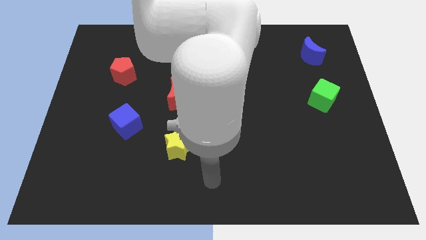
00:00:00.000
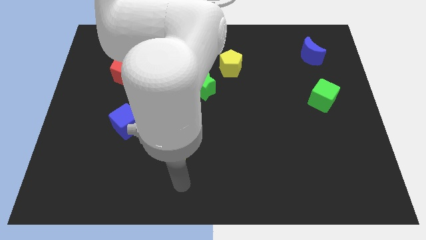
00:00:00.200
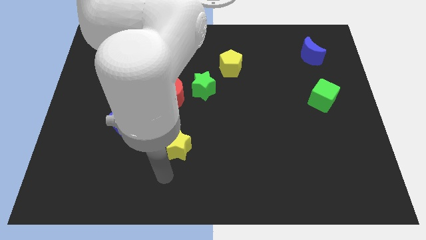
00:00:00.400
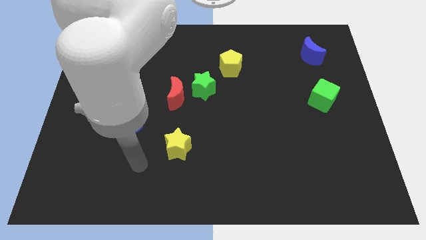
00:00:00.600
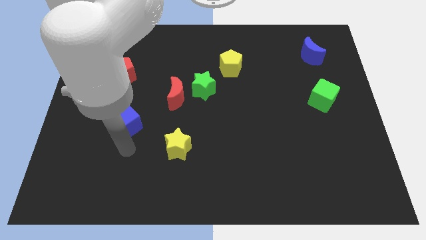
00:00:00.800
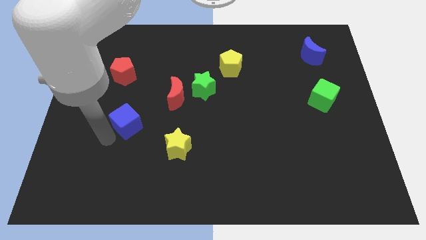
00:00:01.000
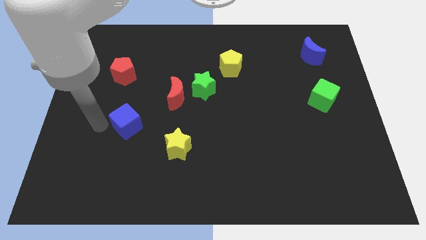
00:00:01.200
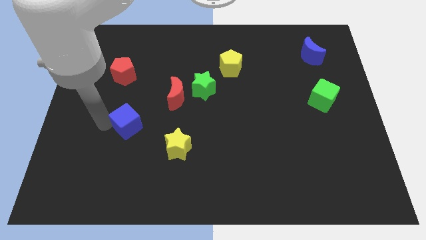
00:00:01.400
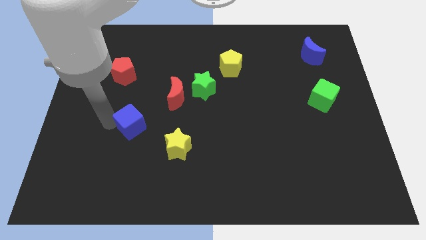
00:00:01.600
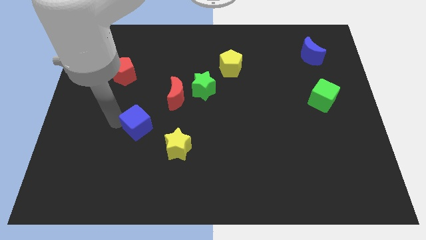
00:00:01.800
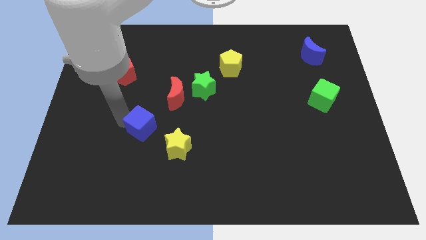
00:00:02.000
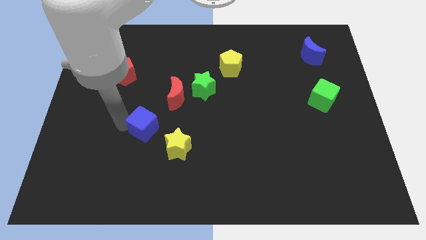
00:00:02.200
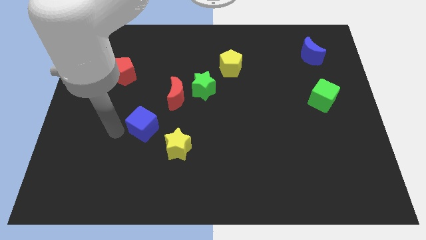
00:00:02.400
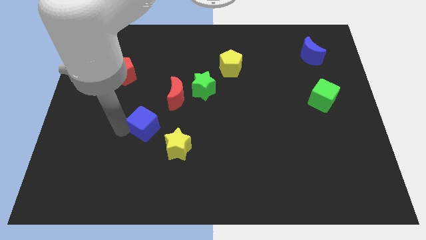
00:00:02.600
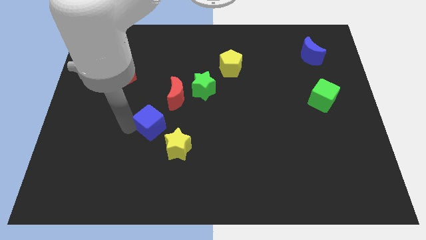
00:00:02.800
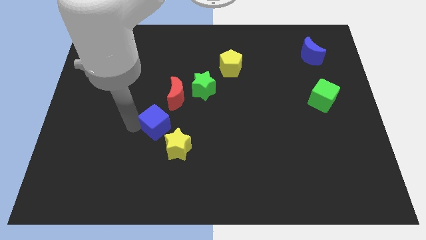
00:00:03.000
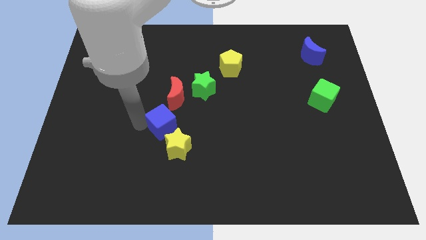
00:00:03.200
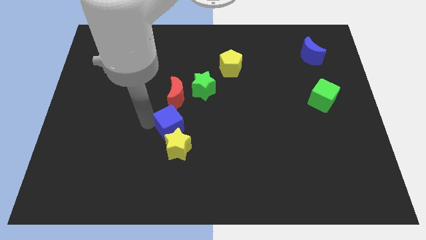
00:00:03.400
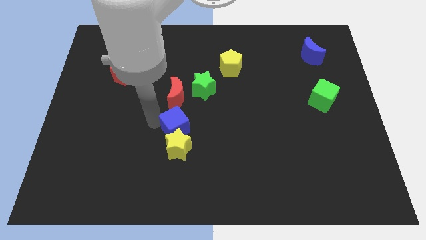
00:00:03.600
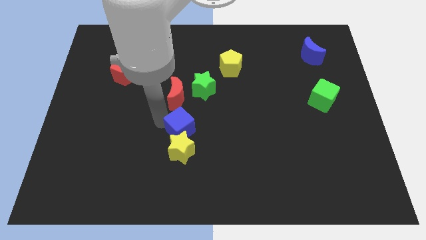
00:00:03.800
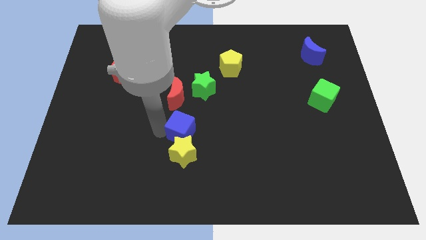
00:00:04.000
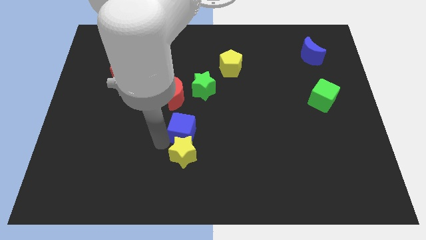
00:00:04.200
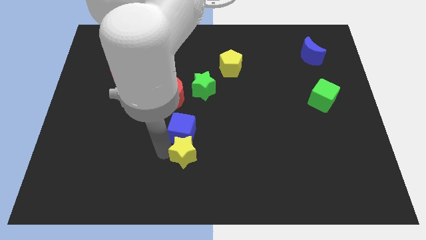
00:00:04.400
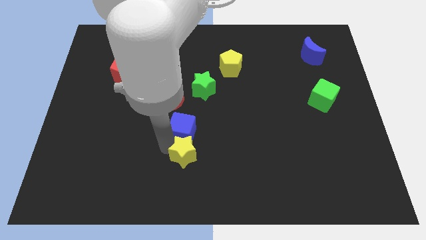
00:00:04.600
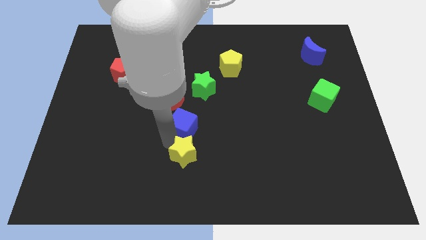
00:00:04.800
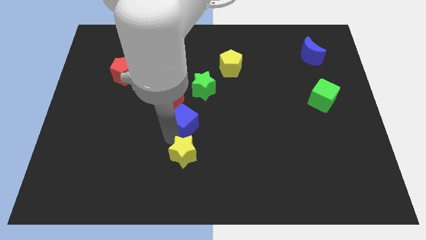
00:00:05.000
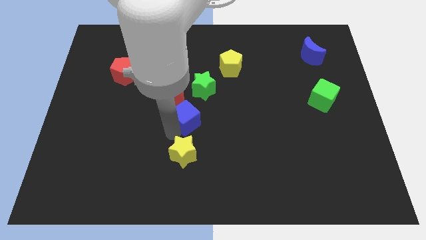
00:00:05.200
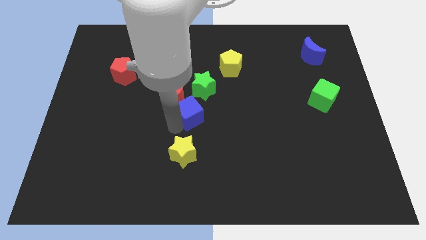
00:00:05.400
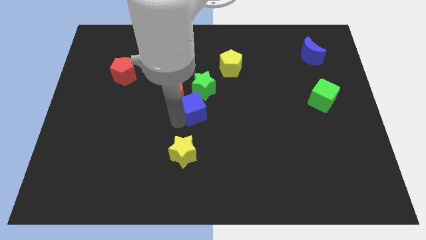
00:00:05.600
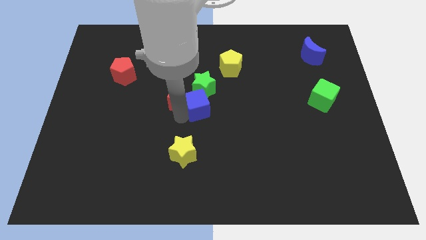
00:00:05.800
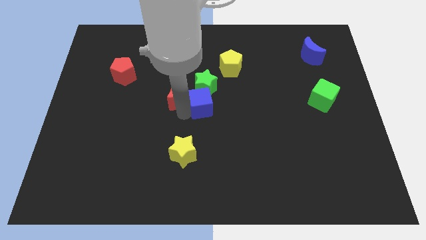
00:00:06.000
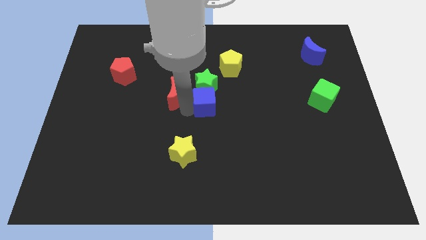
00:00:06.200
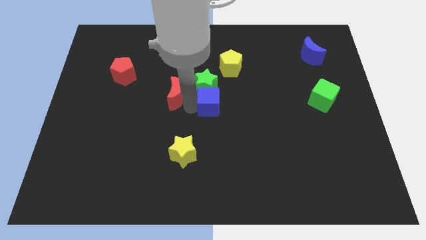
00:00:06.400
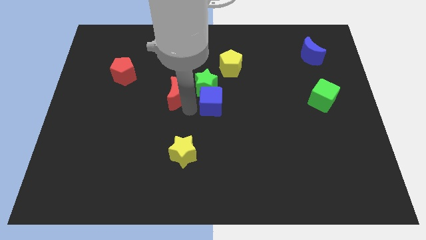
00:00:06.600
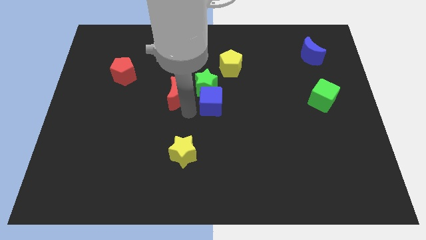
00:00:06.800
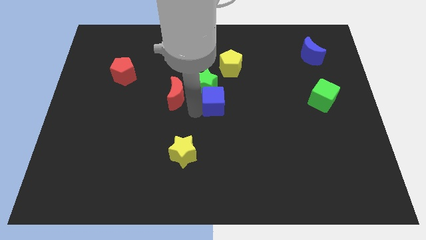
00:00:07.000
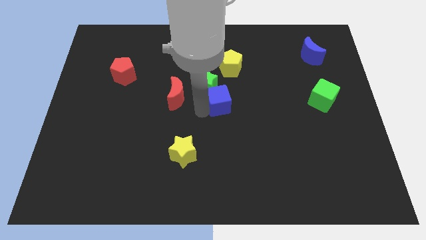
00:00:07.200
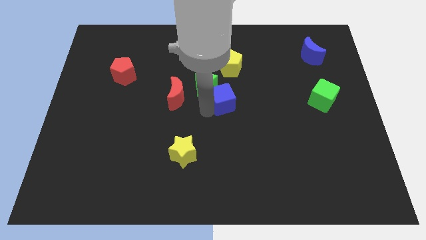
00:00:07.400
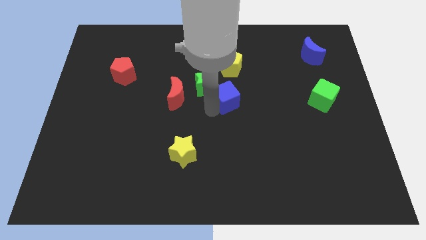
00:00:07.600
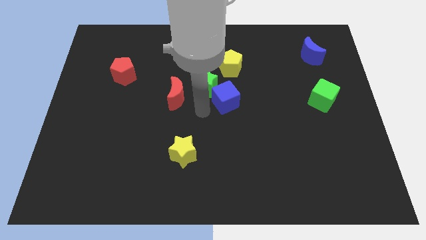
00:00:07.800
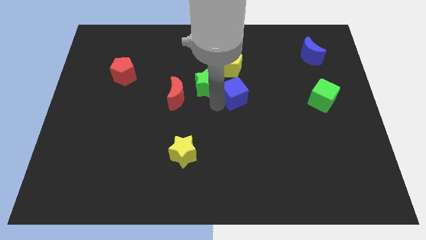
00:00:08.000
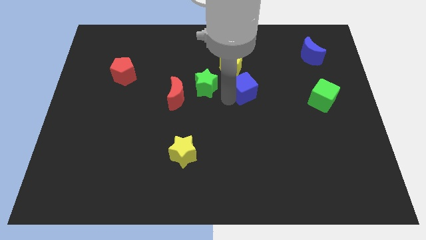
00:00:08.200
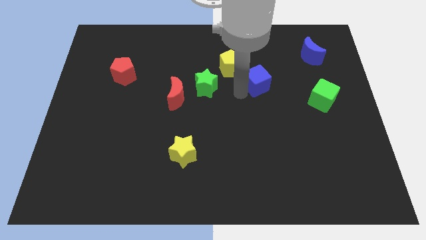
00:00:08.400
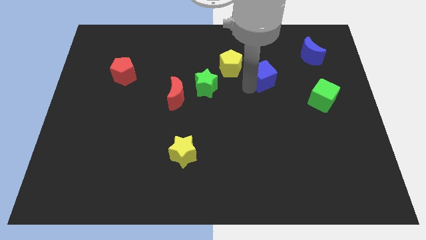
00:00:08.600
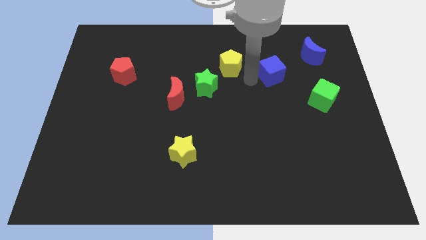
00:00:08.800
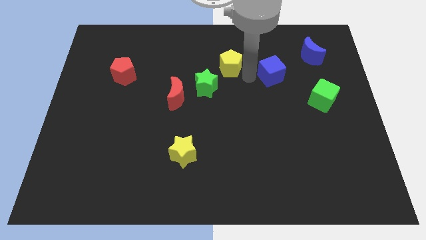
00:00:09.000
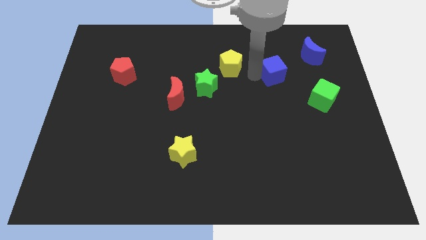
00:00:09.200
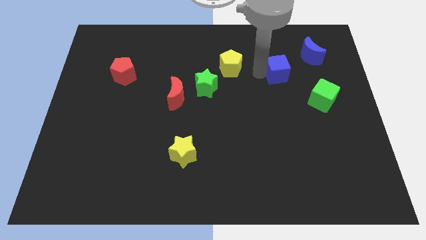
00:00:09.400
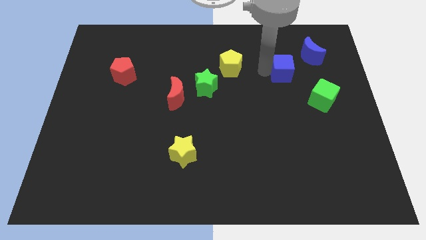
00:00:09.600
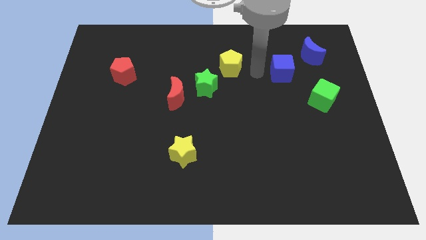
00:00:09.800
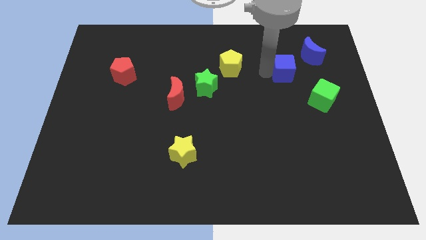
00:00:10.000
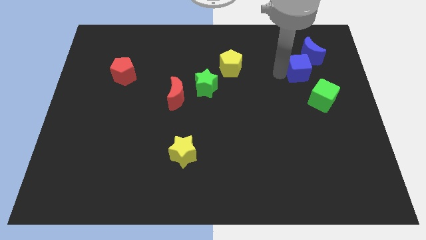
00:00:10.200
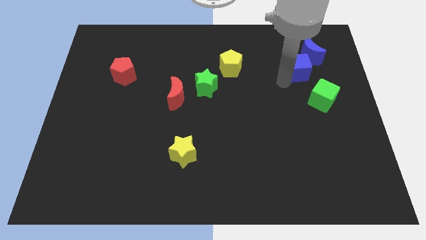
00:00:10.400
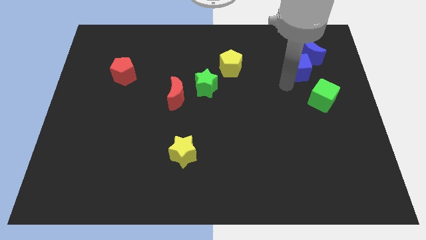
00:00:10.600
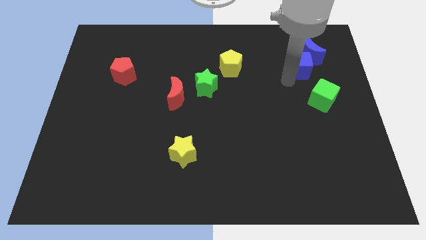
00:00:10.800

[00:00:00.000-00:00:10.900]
slide the blue cube to the blue moon

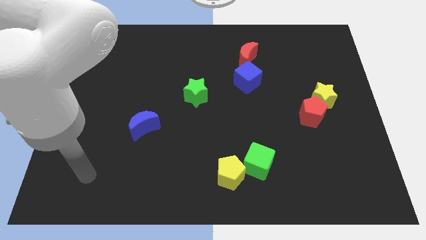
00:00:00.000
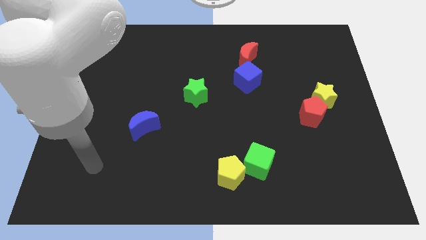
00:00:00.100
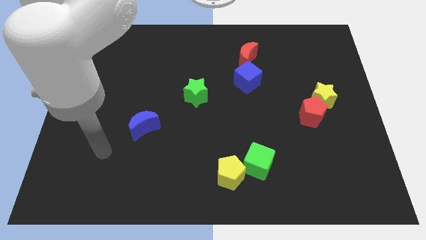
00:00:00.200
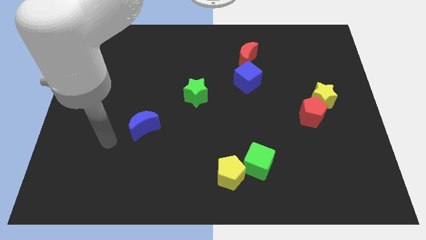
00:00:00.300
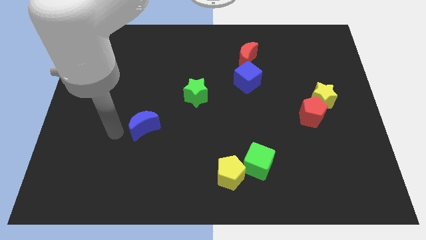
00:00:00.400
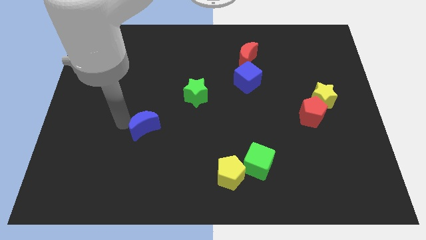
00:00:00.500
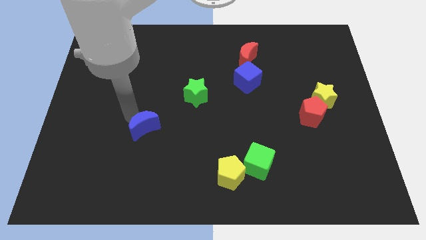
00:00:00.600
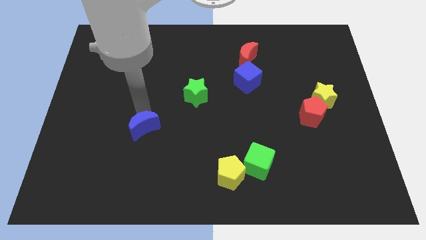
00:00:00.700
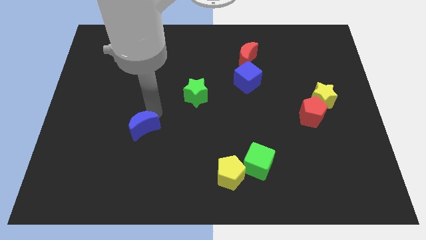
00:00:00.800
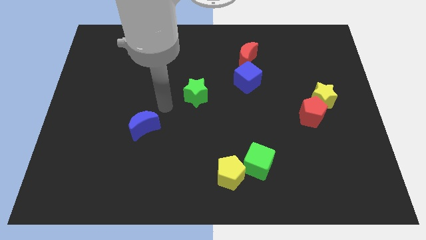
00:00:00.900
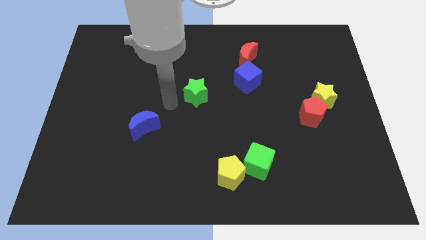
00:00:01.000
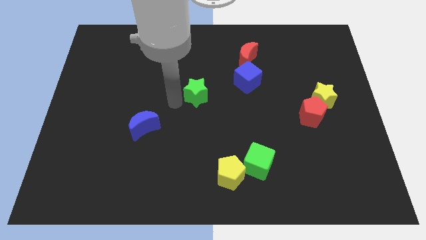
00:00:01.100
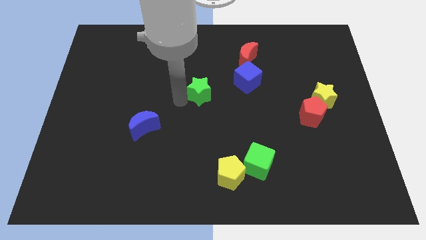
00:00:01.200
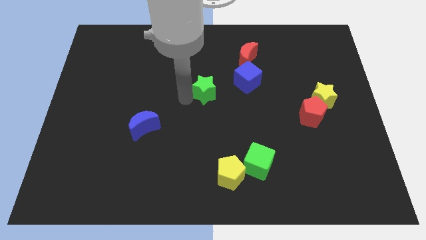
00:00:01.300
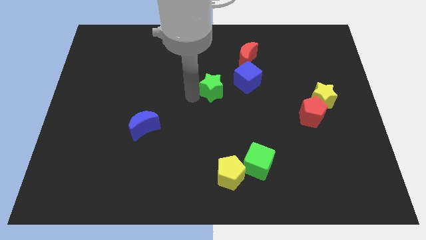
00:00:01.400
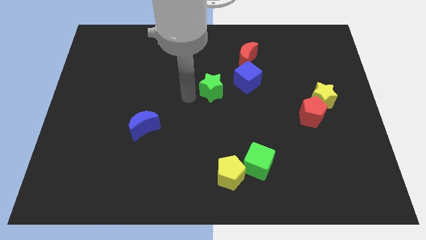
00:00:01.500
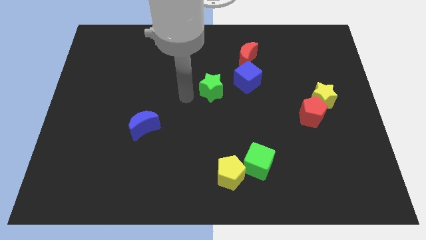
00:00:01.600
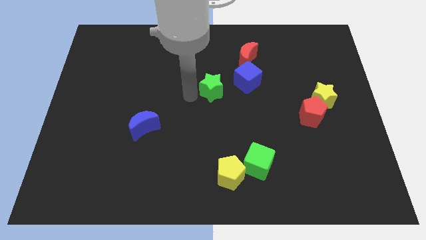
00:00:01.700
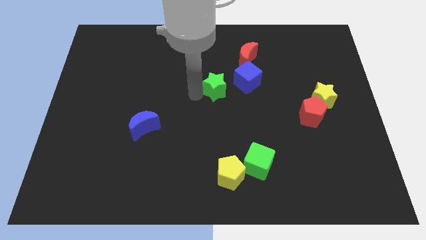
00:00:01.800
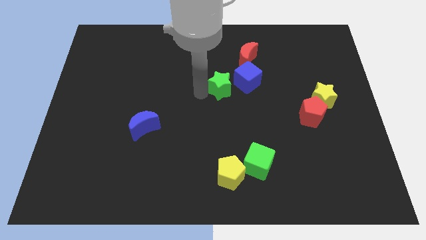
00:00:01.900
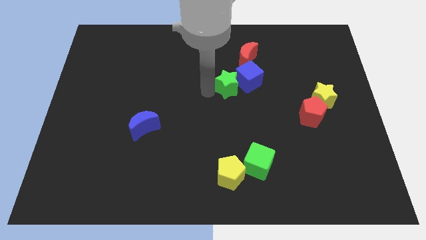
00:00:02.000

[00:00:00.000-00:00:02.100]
put the green star to the blue cube
